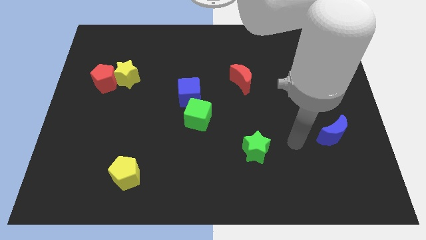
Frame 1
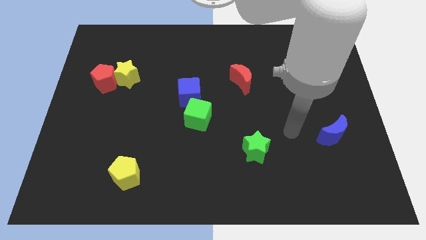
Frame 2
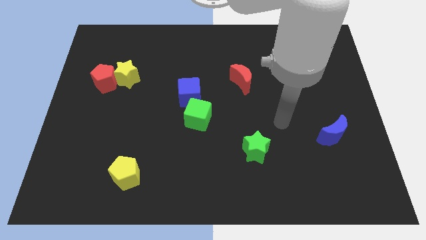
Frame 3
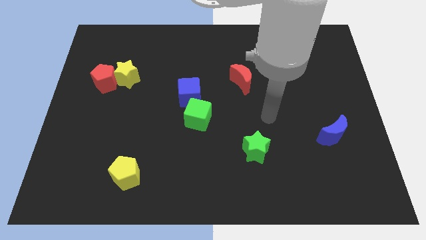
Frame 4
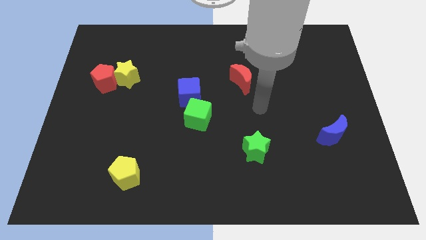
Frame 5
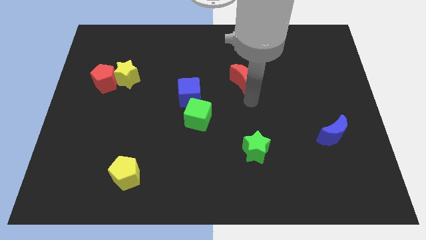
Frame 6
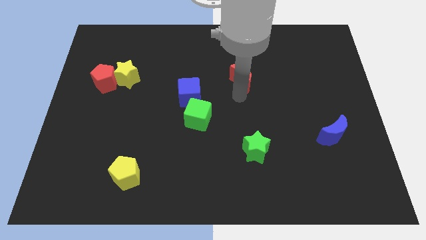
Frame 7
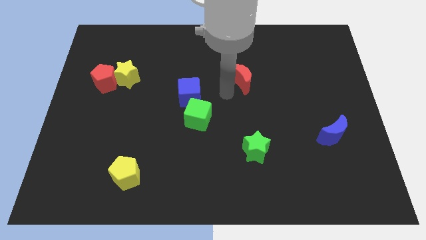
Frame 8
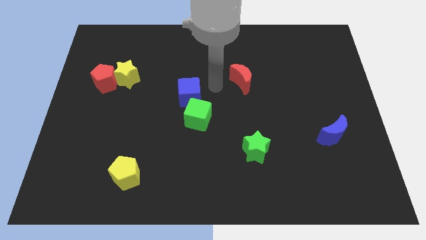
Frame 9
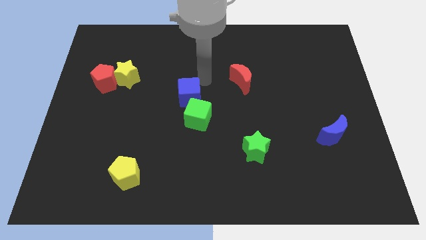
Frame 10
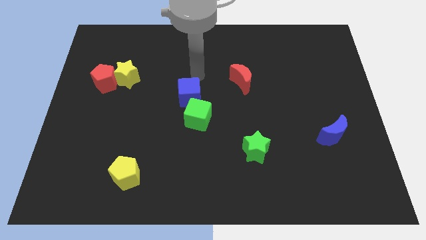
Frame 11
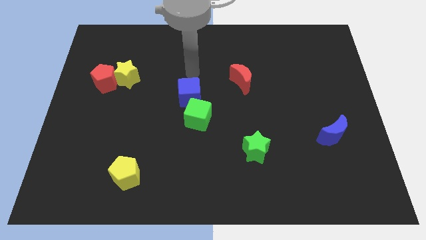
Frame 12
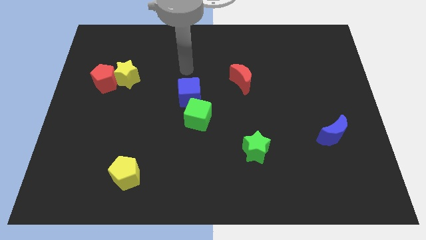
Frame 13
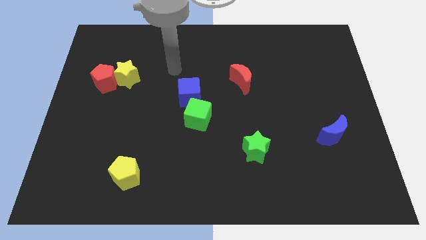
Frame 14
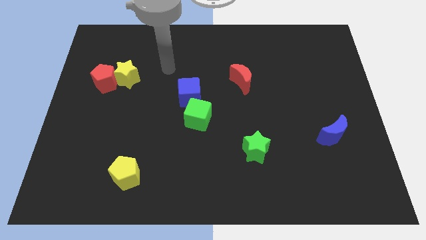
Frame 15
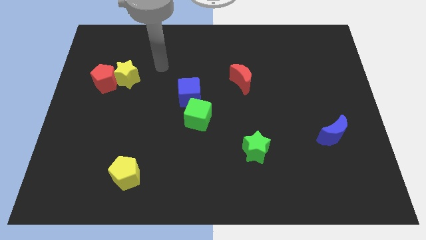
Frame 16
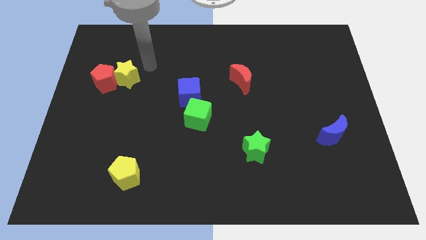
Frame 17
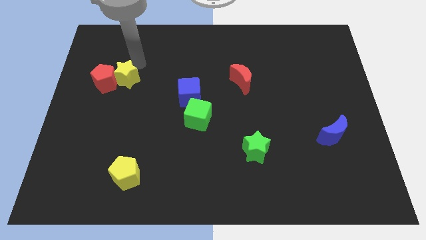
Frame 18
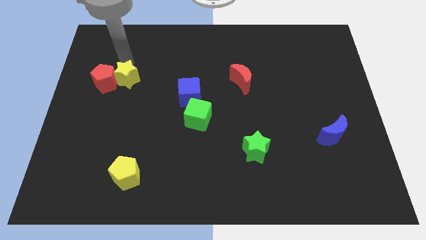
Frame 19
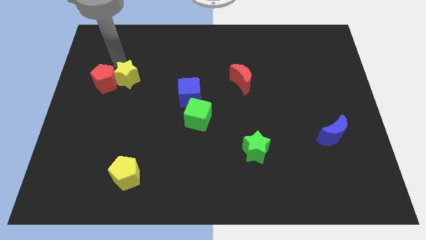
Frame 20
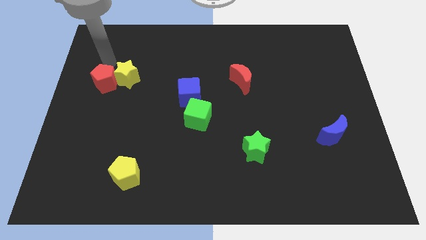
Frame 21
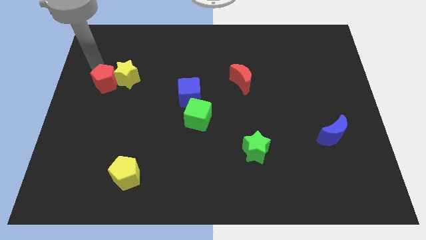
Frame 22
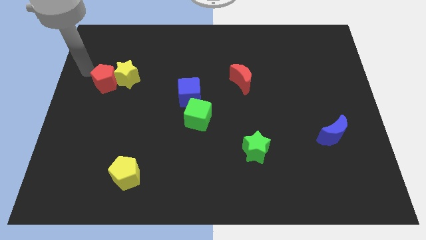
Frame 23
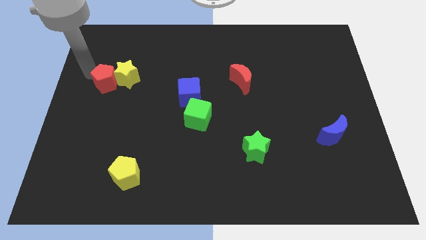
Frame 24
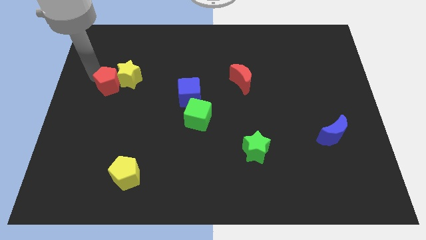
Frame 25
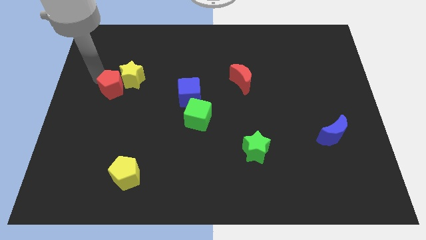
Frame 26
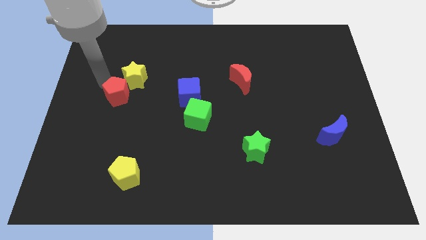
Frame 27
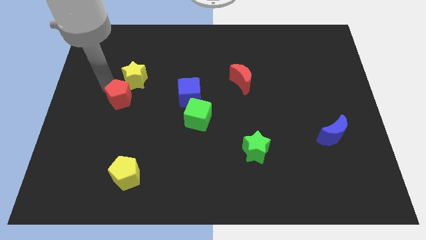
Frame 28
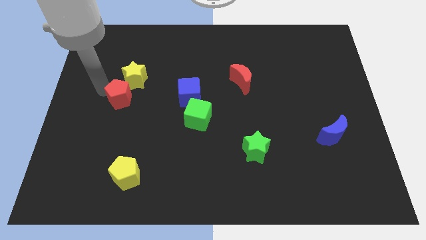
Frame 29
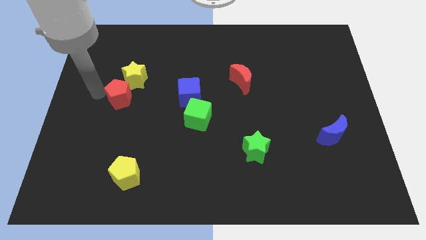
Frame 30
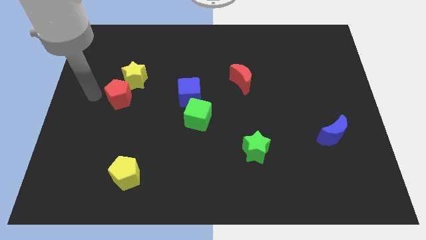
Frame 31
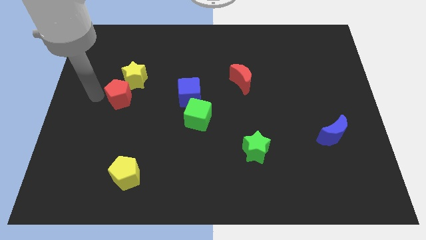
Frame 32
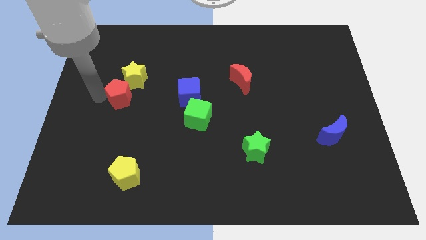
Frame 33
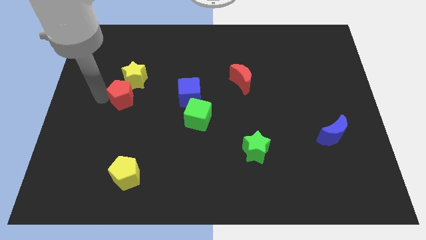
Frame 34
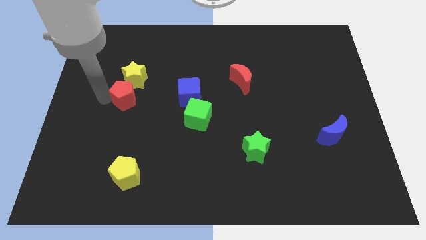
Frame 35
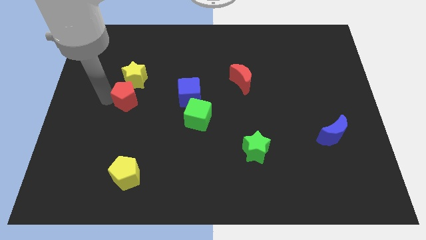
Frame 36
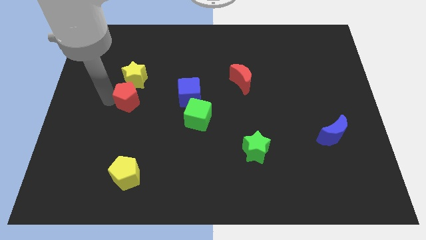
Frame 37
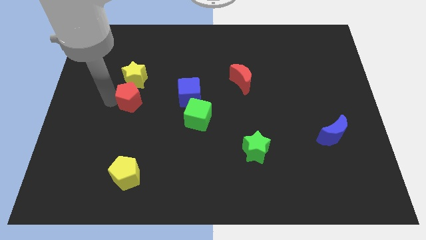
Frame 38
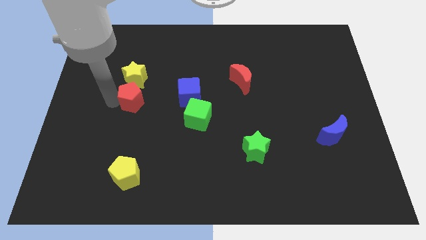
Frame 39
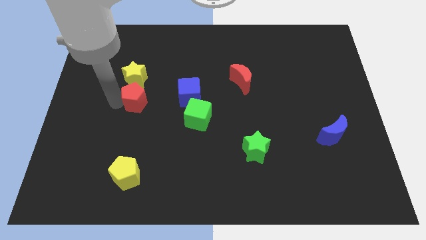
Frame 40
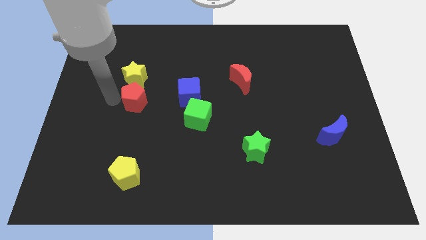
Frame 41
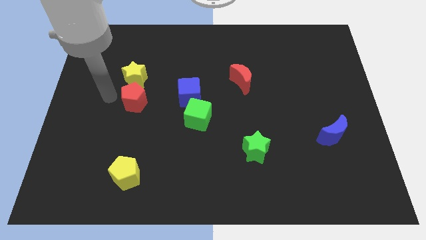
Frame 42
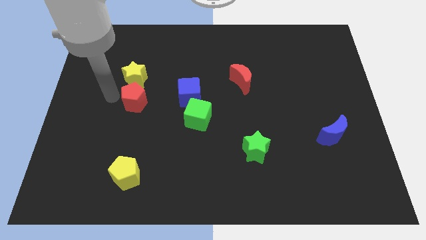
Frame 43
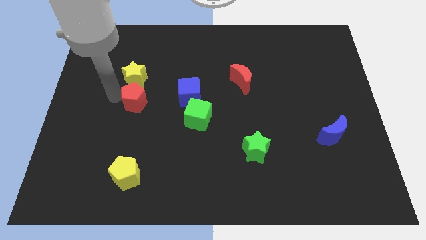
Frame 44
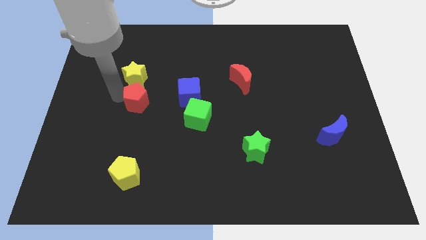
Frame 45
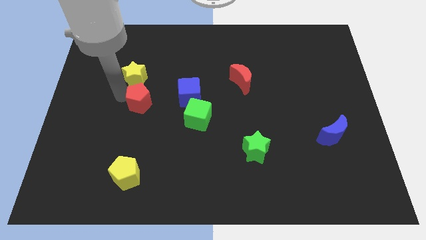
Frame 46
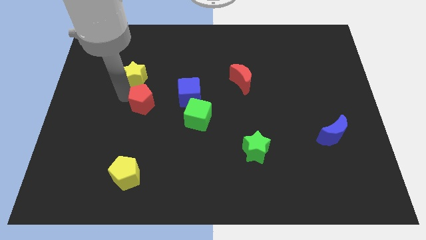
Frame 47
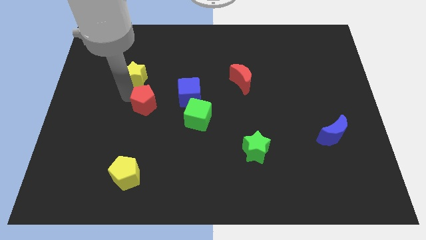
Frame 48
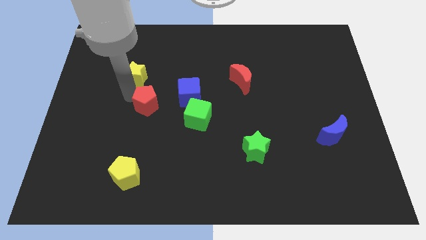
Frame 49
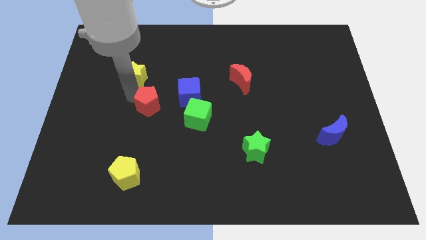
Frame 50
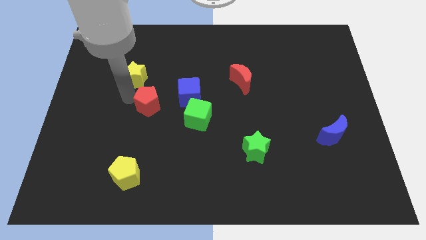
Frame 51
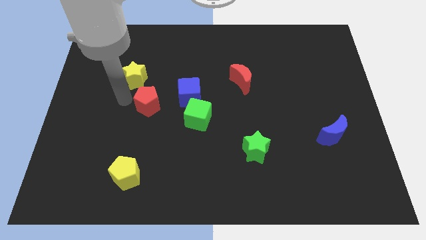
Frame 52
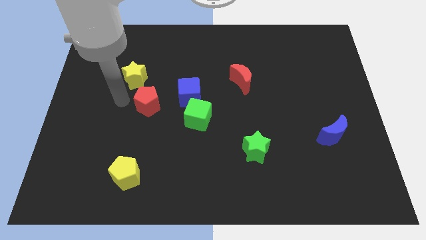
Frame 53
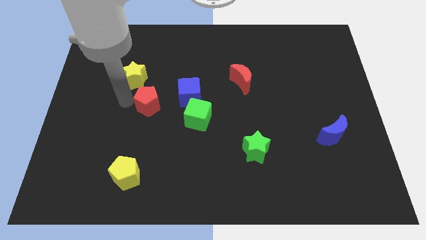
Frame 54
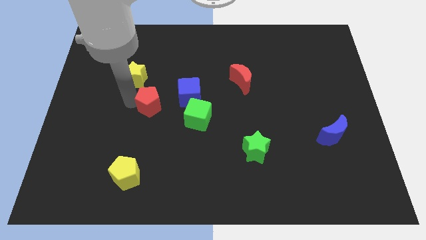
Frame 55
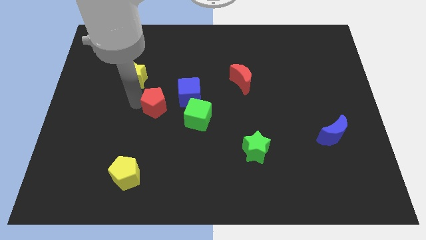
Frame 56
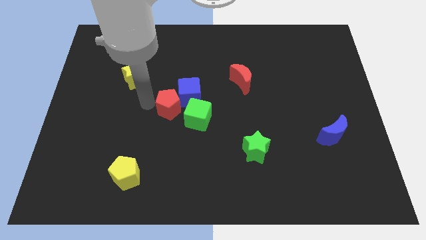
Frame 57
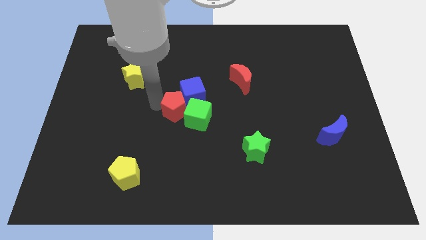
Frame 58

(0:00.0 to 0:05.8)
slide the red pentagon towards the green cube

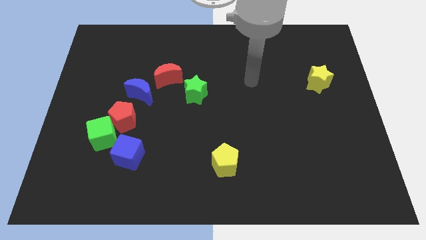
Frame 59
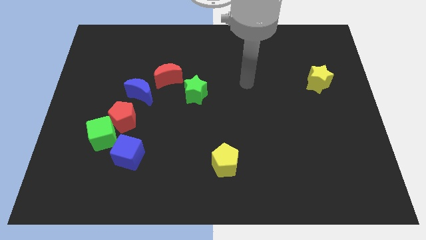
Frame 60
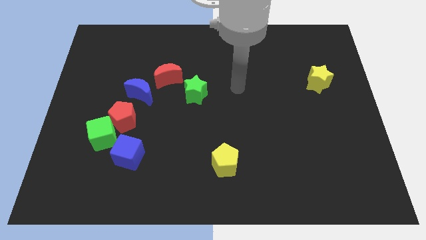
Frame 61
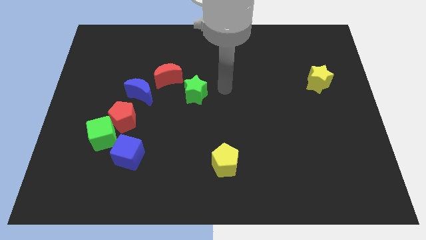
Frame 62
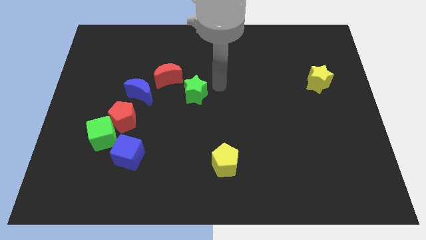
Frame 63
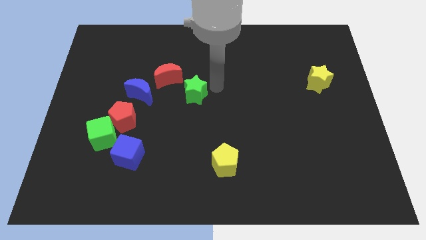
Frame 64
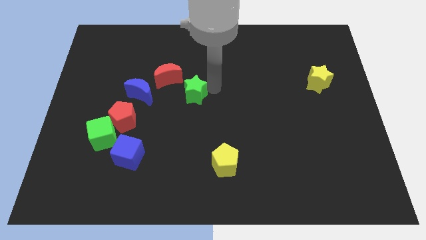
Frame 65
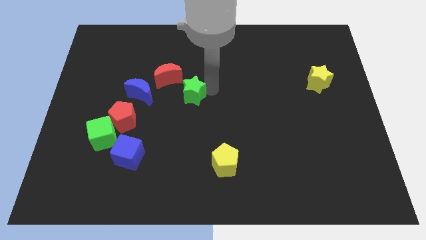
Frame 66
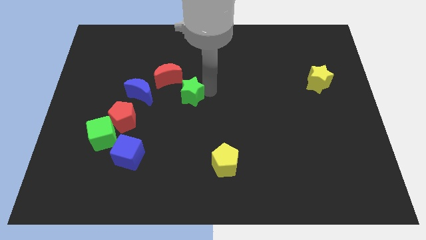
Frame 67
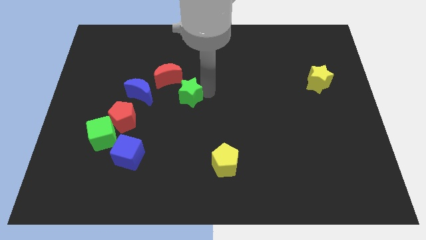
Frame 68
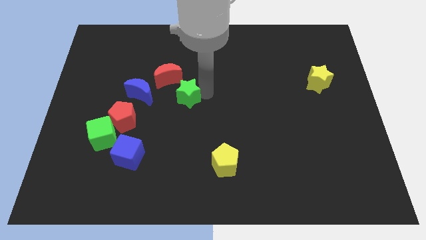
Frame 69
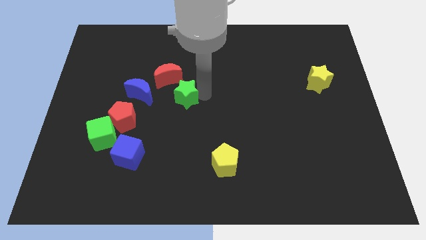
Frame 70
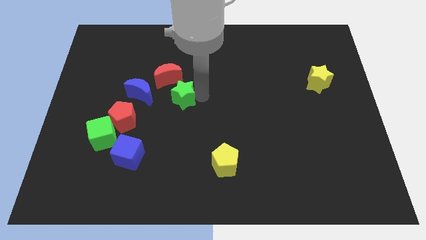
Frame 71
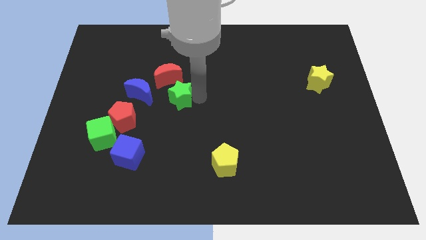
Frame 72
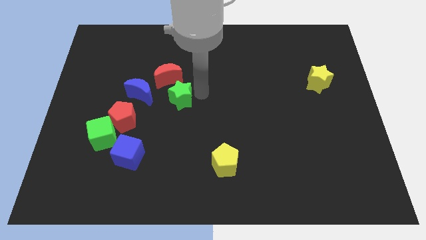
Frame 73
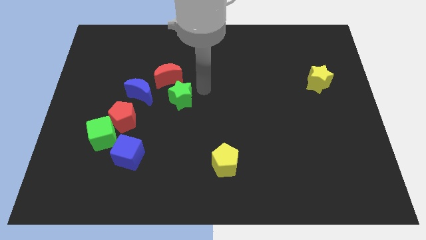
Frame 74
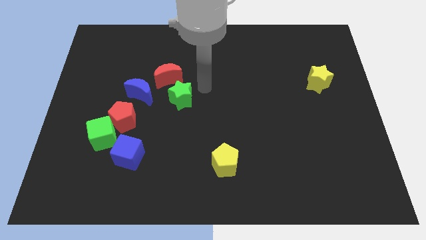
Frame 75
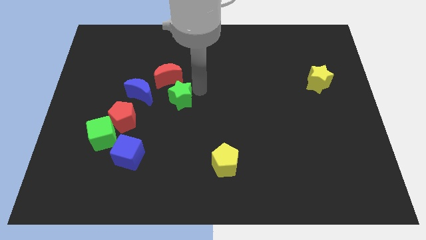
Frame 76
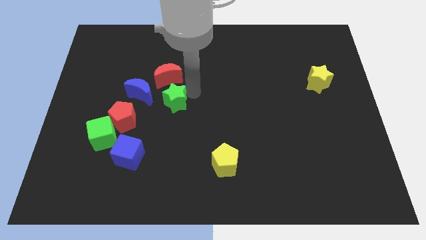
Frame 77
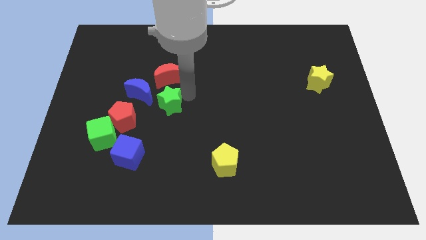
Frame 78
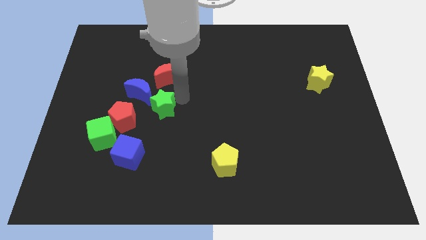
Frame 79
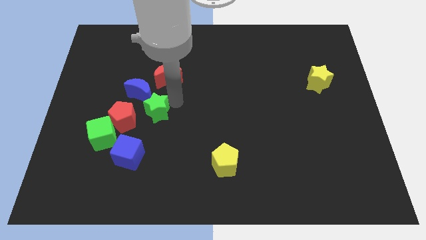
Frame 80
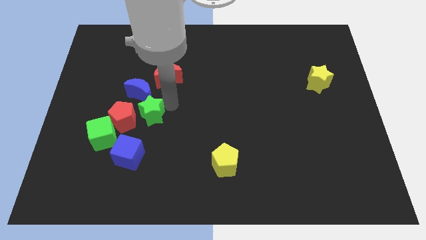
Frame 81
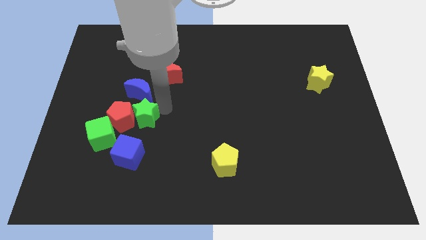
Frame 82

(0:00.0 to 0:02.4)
move the green star next to the red pentagon
